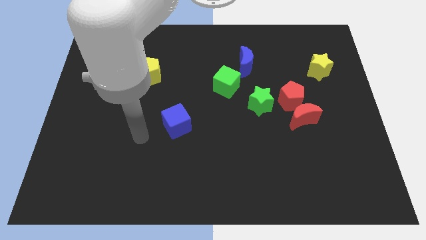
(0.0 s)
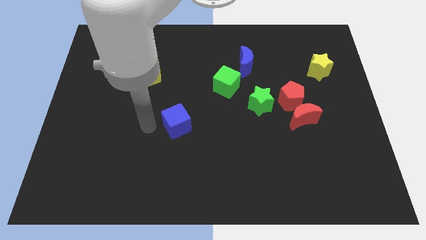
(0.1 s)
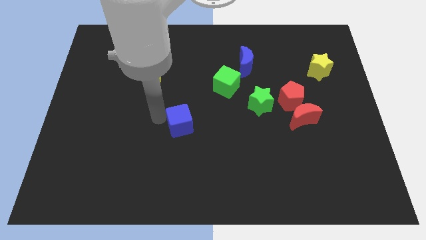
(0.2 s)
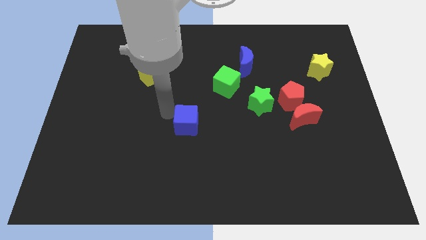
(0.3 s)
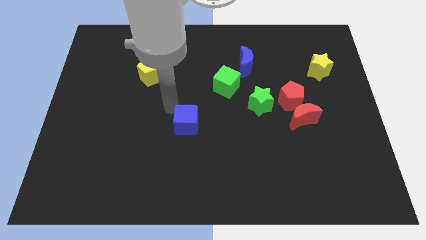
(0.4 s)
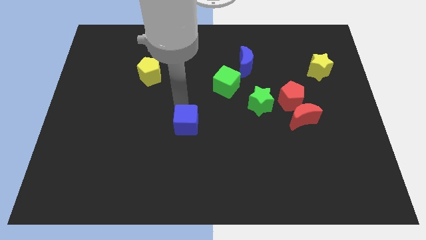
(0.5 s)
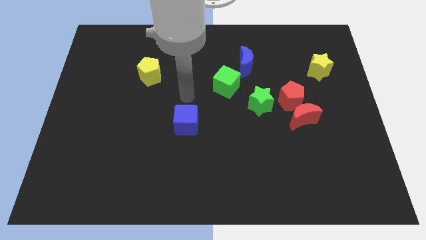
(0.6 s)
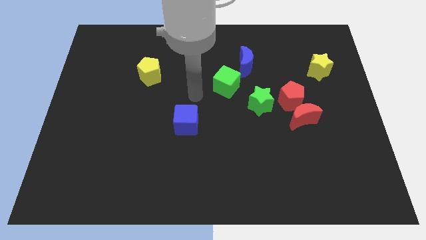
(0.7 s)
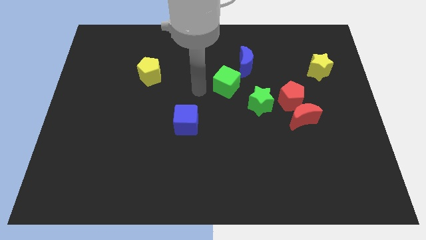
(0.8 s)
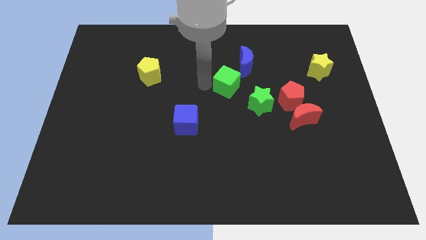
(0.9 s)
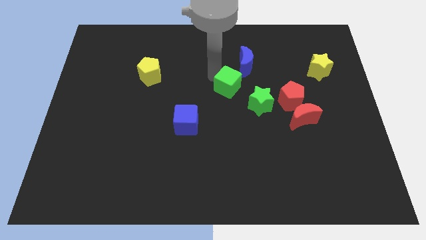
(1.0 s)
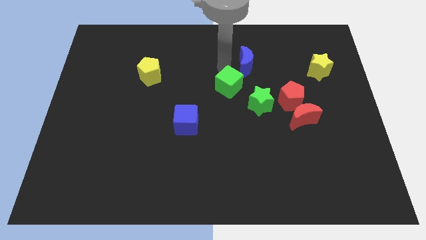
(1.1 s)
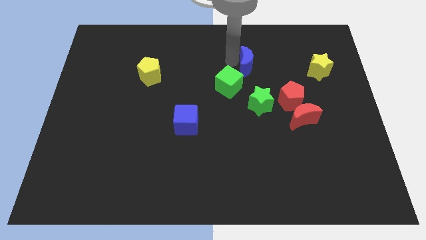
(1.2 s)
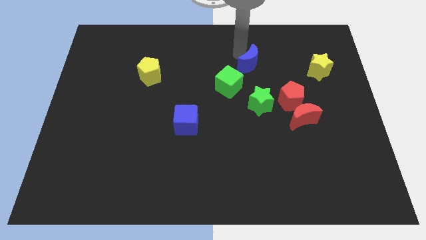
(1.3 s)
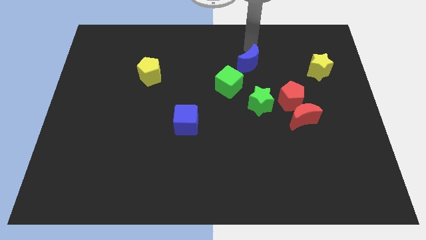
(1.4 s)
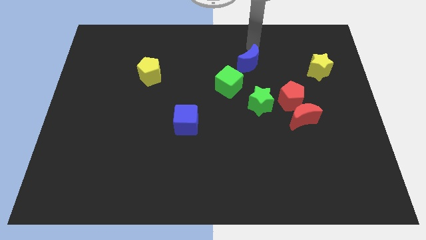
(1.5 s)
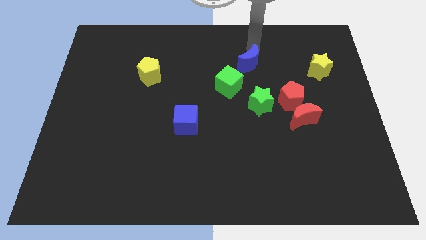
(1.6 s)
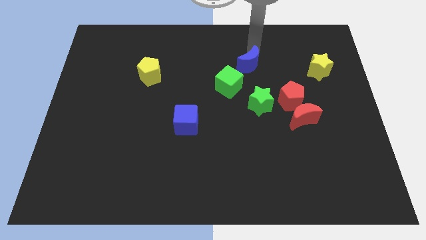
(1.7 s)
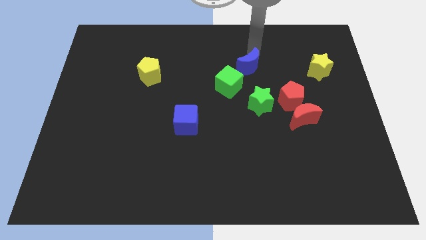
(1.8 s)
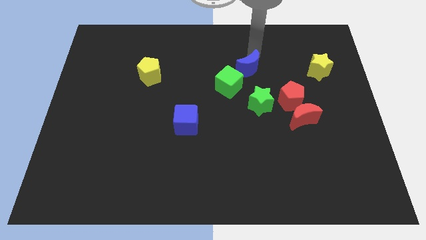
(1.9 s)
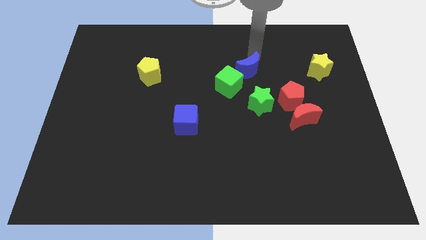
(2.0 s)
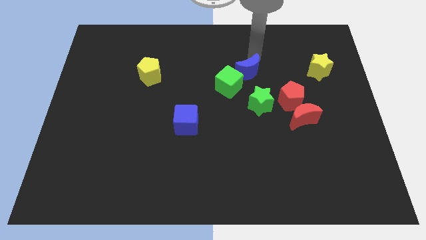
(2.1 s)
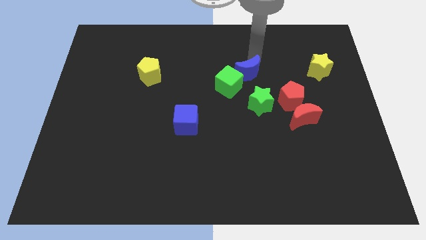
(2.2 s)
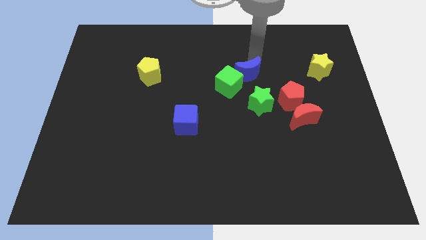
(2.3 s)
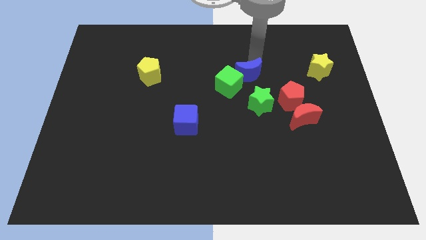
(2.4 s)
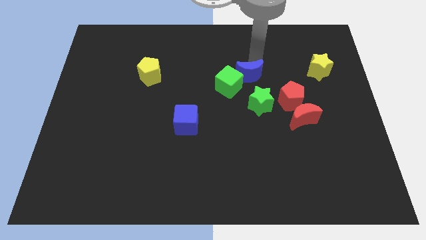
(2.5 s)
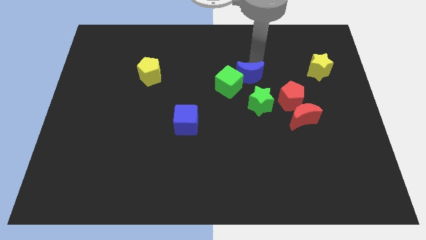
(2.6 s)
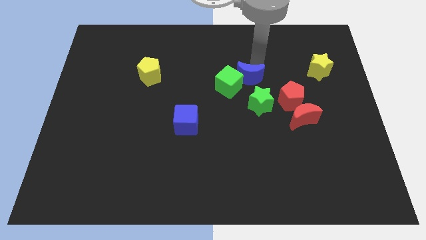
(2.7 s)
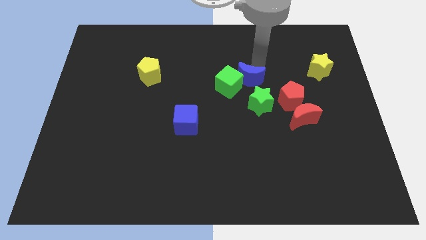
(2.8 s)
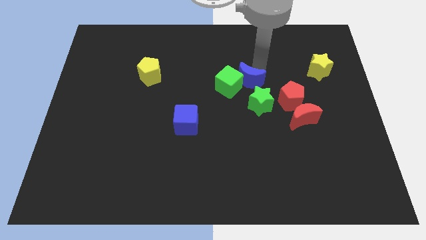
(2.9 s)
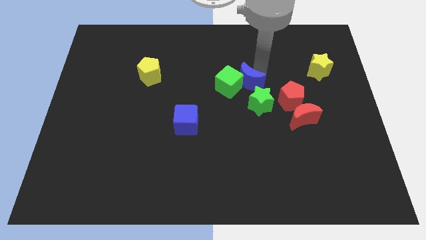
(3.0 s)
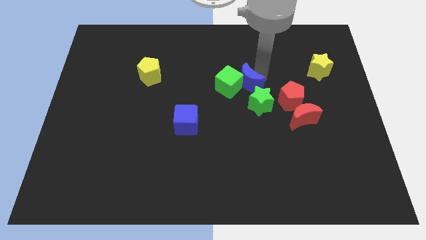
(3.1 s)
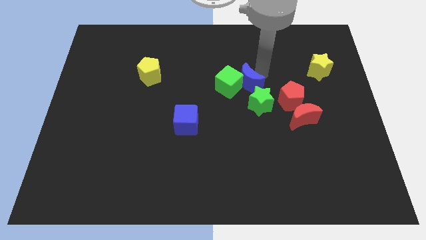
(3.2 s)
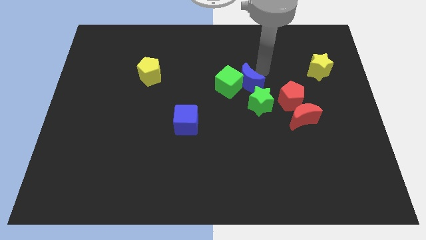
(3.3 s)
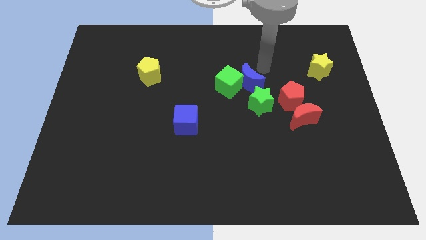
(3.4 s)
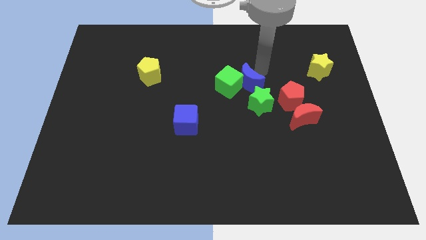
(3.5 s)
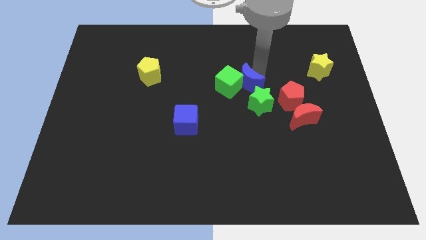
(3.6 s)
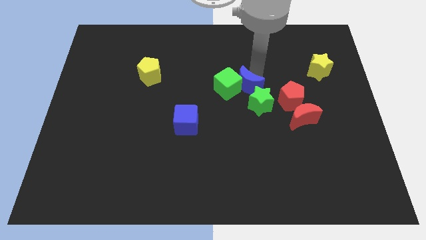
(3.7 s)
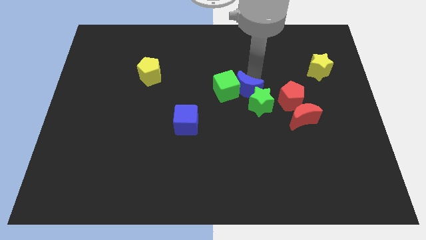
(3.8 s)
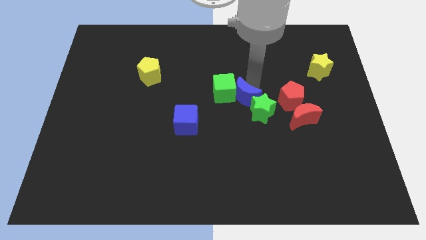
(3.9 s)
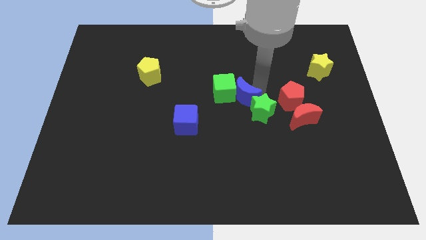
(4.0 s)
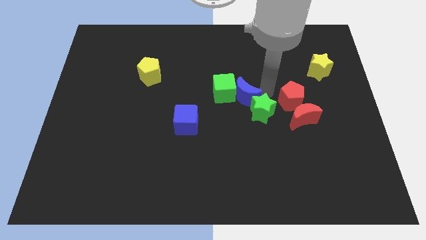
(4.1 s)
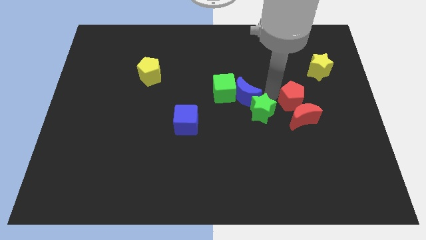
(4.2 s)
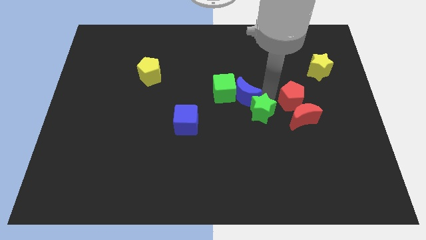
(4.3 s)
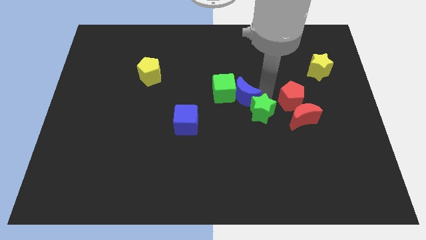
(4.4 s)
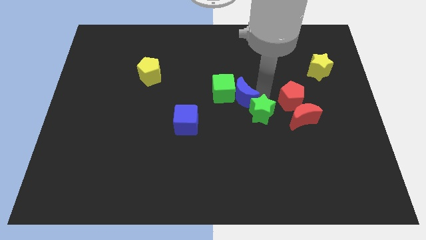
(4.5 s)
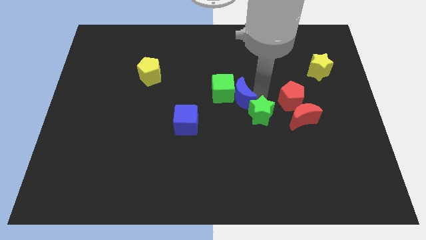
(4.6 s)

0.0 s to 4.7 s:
slightly slide the blue moon diagonally down and to the left

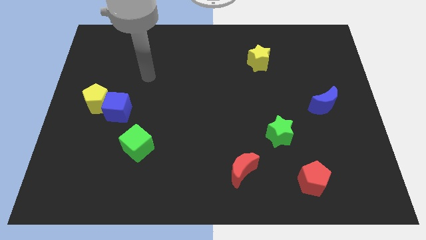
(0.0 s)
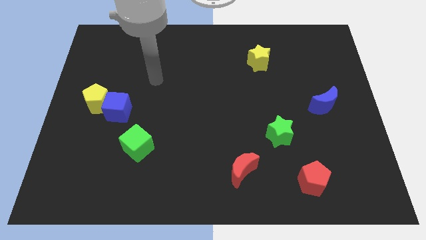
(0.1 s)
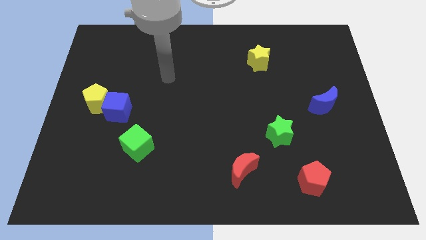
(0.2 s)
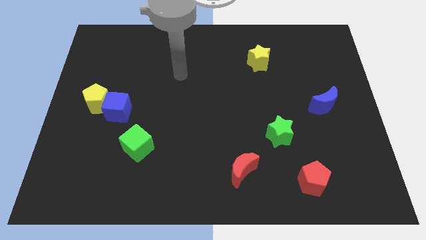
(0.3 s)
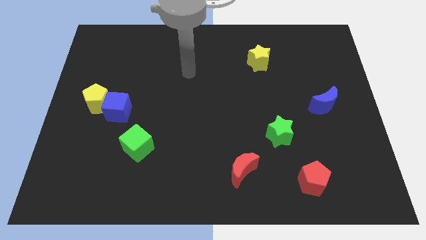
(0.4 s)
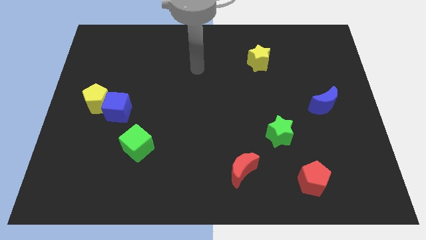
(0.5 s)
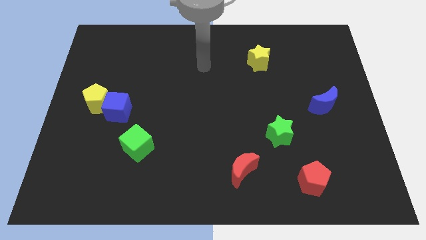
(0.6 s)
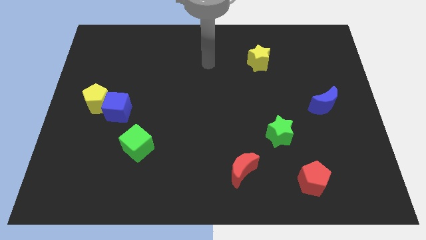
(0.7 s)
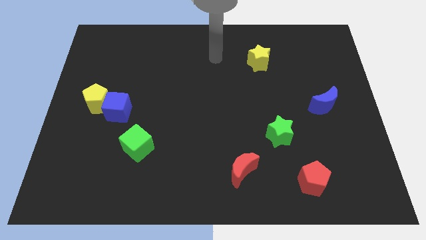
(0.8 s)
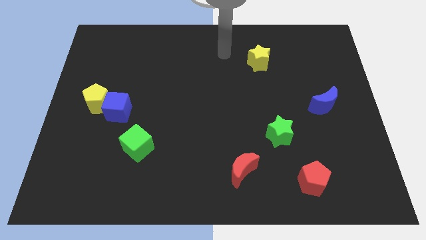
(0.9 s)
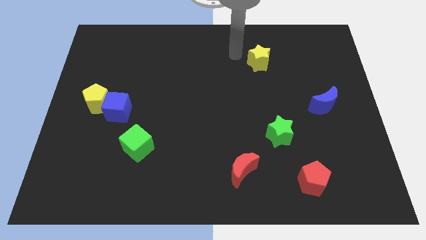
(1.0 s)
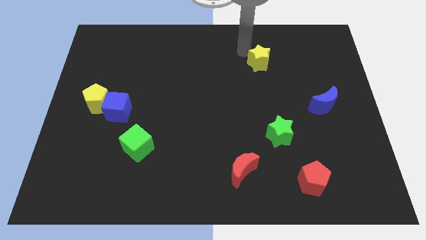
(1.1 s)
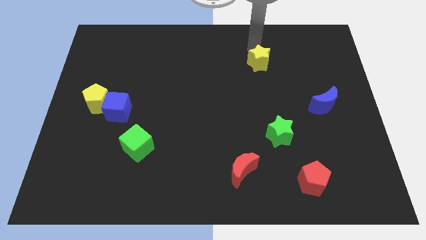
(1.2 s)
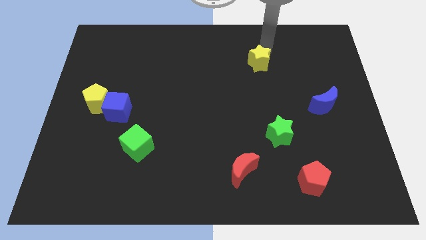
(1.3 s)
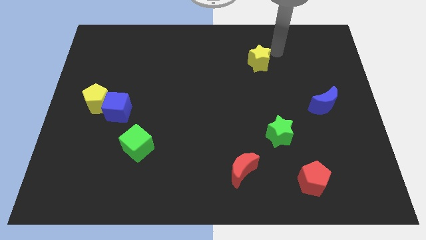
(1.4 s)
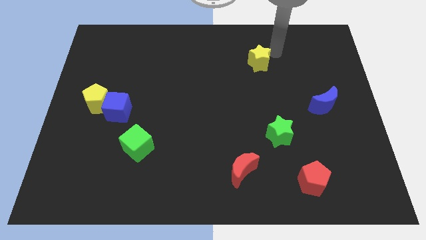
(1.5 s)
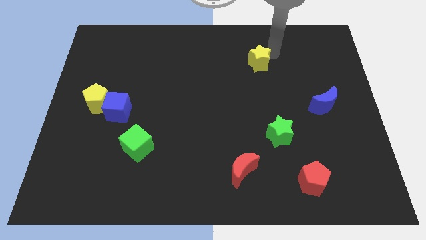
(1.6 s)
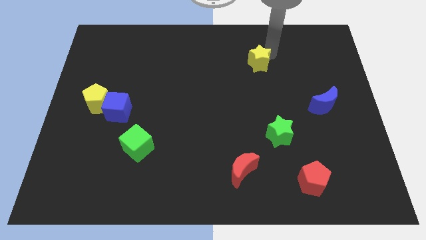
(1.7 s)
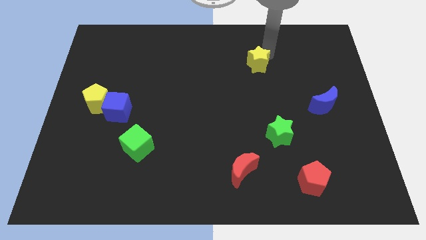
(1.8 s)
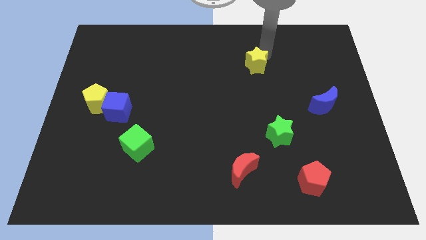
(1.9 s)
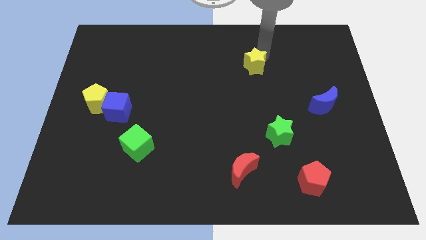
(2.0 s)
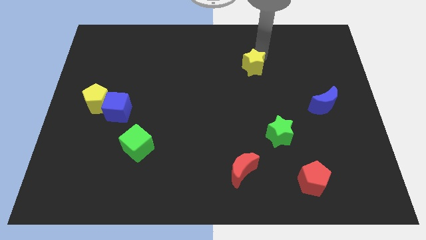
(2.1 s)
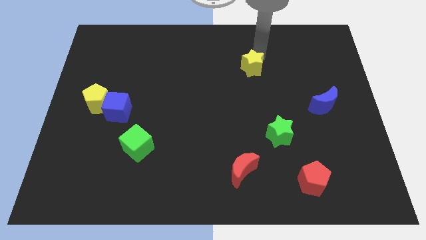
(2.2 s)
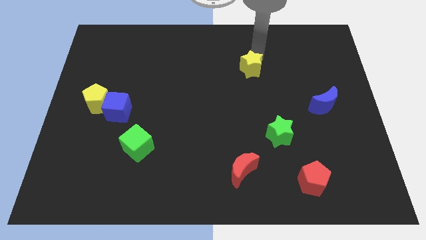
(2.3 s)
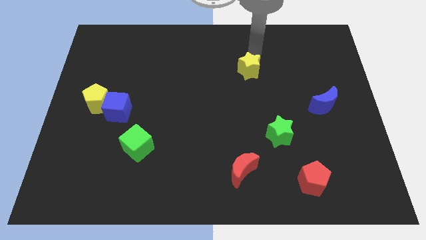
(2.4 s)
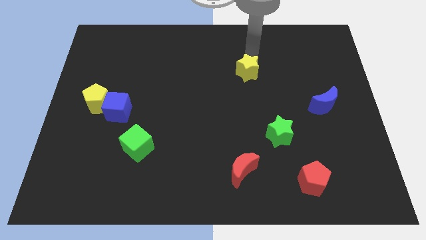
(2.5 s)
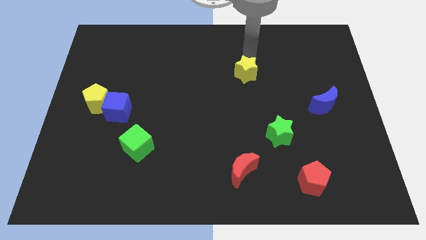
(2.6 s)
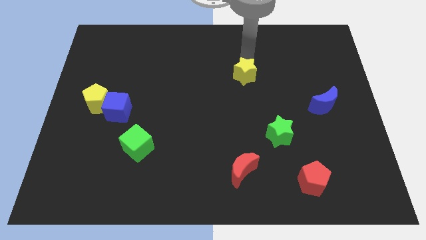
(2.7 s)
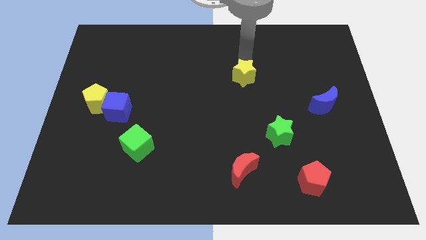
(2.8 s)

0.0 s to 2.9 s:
move the yellow star a little diagonally down and left

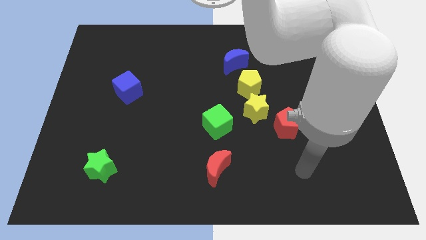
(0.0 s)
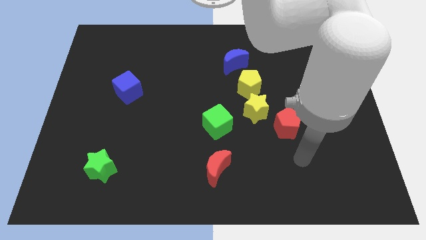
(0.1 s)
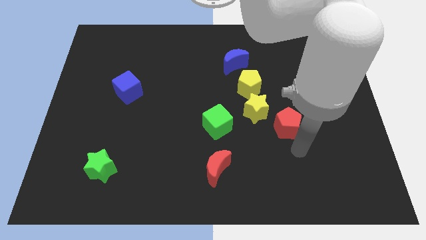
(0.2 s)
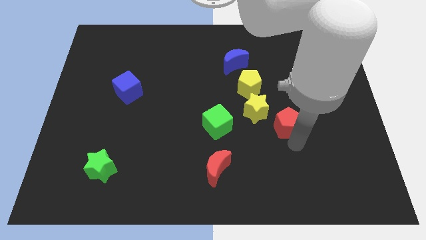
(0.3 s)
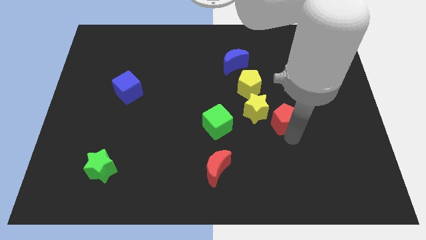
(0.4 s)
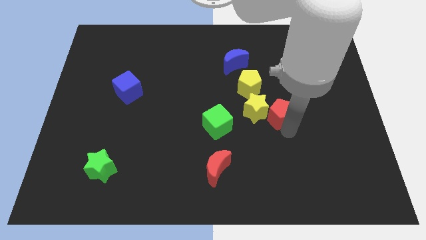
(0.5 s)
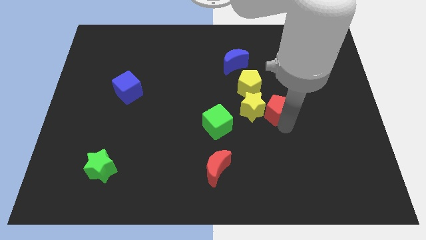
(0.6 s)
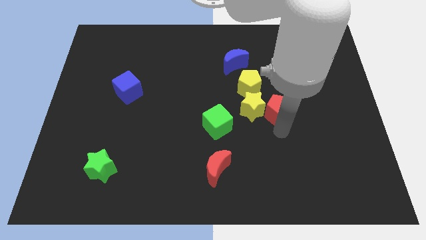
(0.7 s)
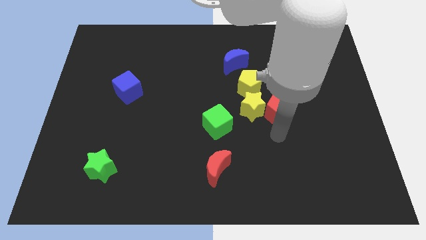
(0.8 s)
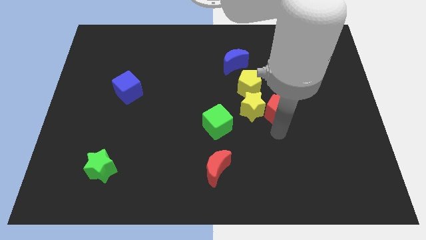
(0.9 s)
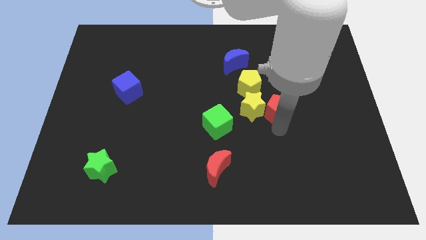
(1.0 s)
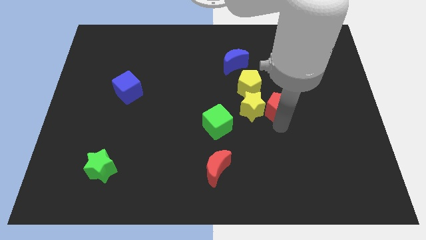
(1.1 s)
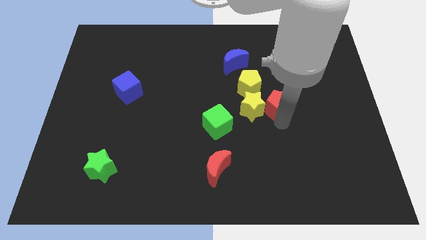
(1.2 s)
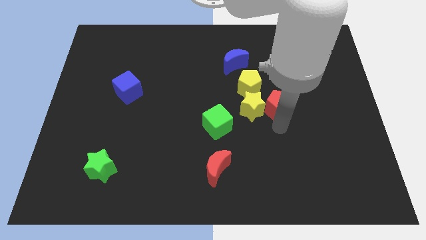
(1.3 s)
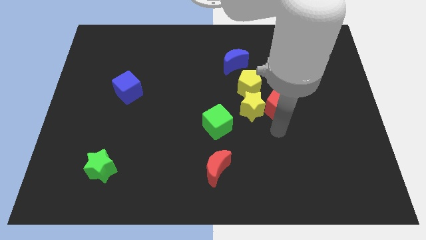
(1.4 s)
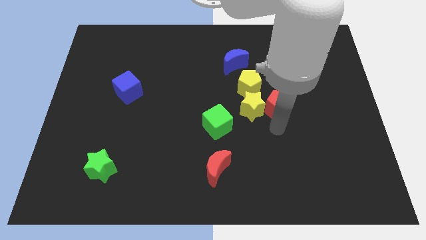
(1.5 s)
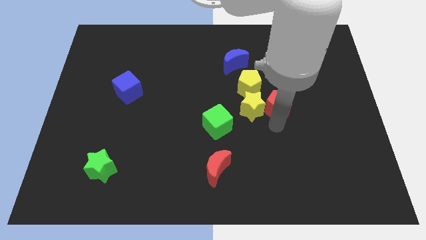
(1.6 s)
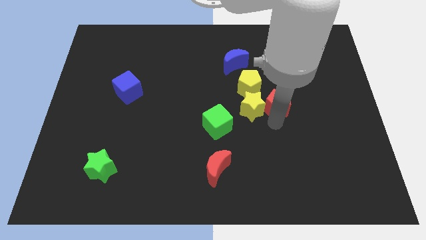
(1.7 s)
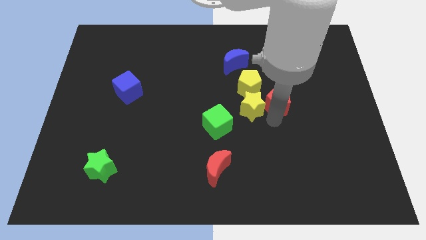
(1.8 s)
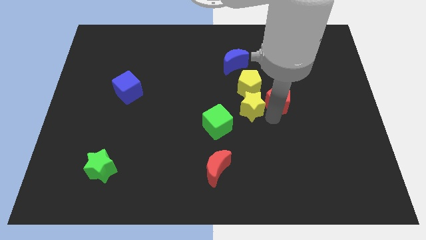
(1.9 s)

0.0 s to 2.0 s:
slide the red pentagon a little bit upwards
